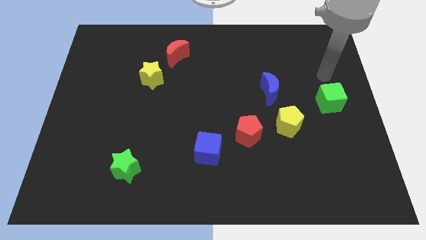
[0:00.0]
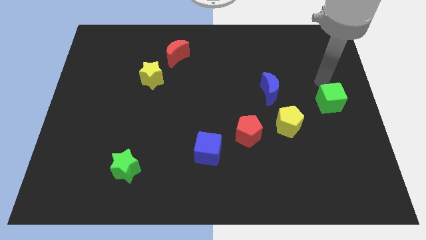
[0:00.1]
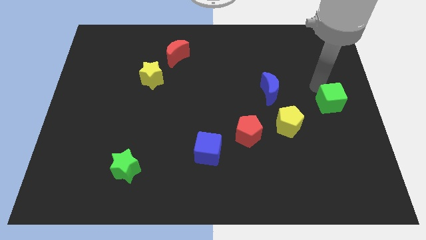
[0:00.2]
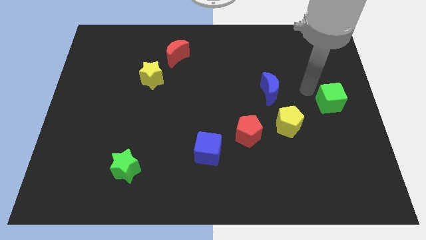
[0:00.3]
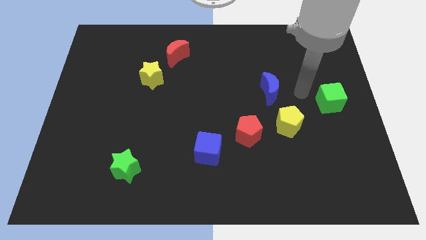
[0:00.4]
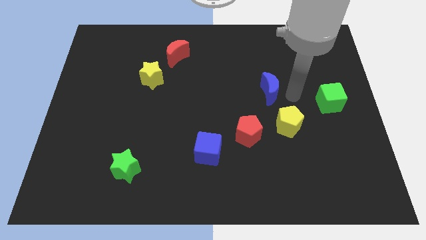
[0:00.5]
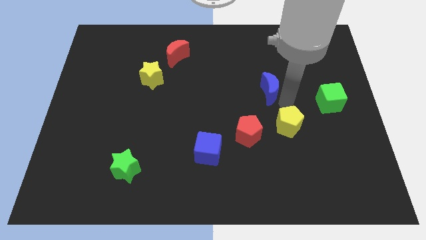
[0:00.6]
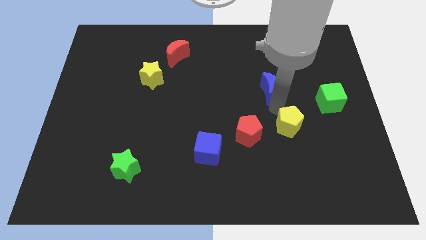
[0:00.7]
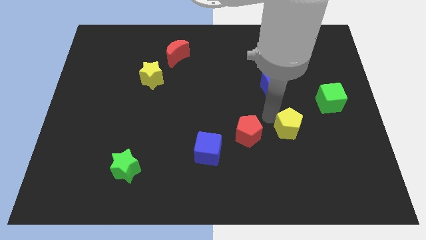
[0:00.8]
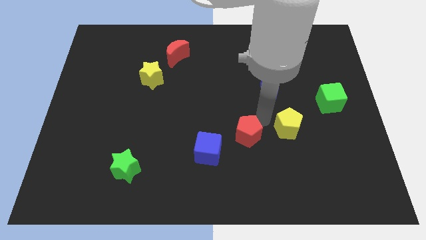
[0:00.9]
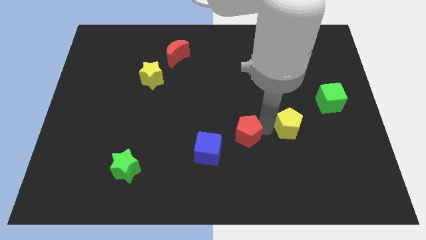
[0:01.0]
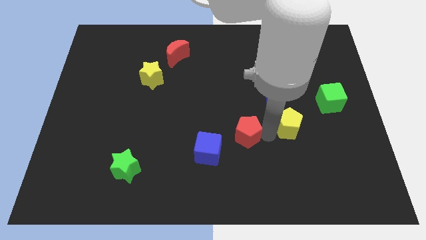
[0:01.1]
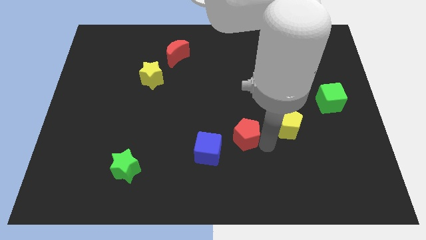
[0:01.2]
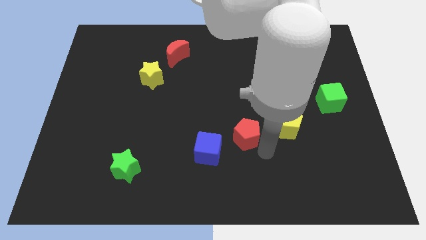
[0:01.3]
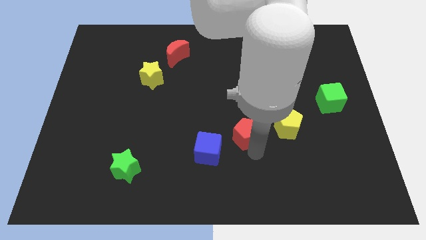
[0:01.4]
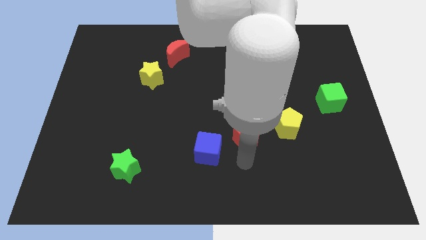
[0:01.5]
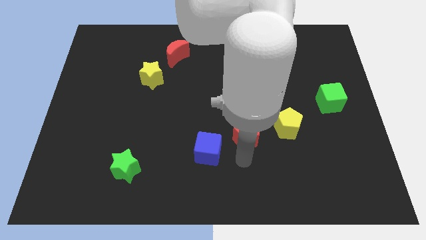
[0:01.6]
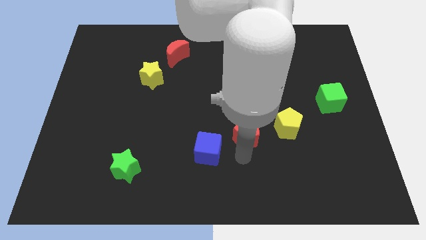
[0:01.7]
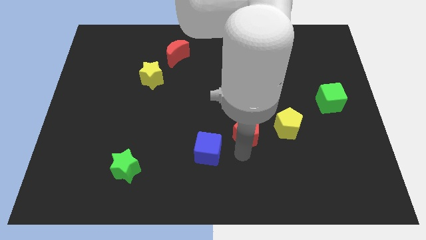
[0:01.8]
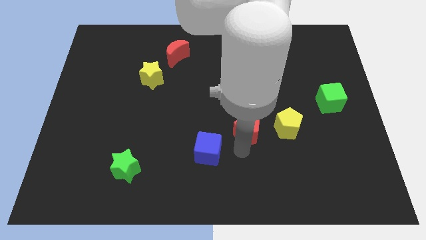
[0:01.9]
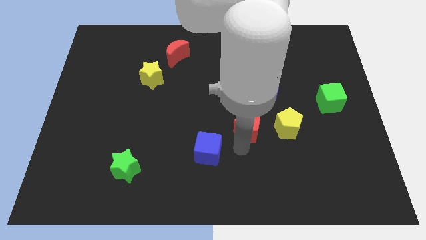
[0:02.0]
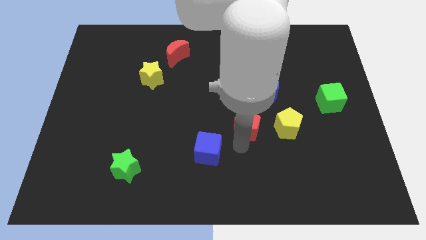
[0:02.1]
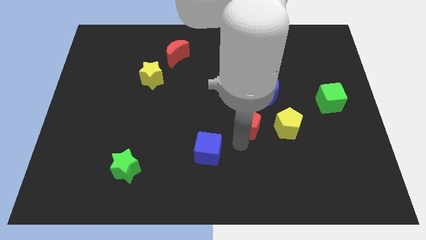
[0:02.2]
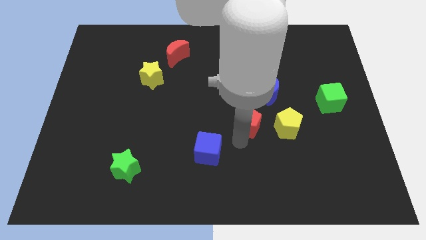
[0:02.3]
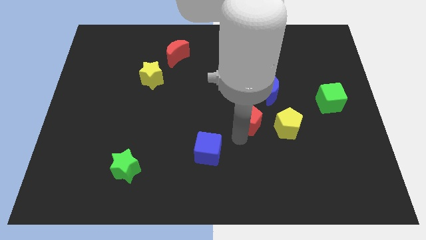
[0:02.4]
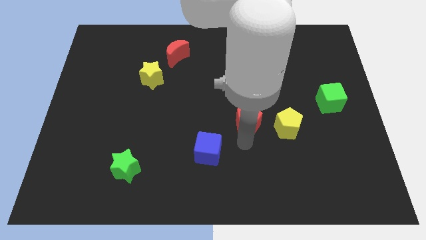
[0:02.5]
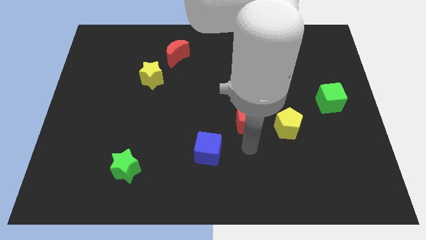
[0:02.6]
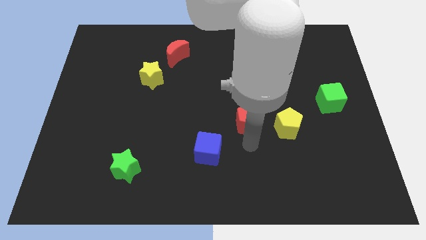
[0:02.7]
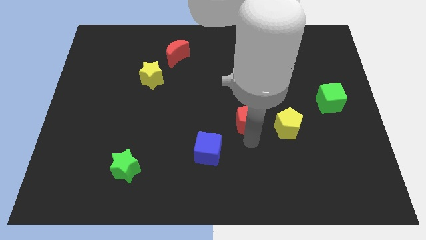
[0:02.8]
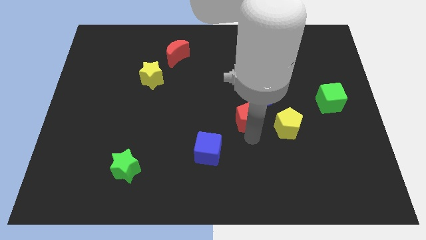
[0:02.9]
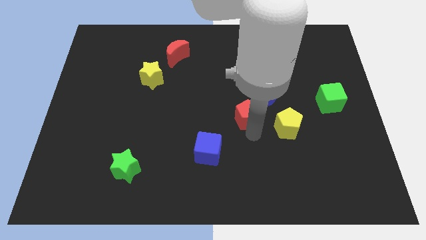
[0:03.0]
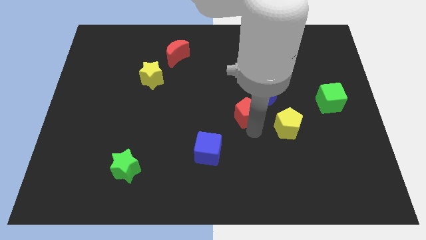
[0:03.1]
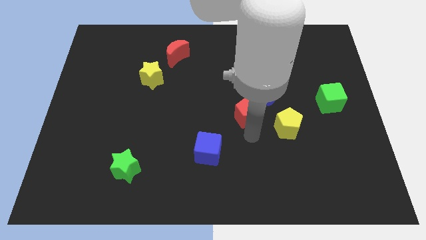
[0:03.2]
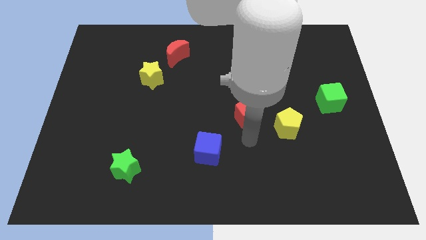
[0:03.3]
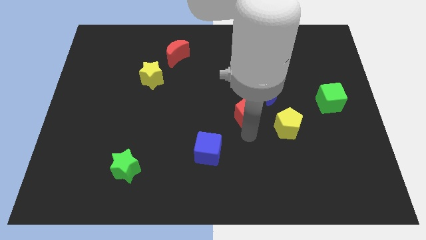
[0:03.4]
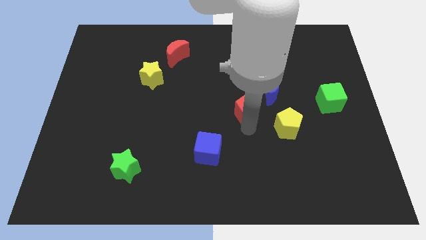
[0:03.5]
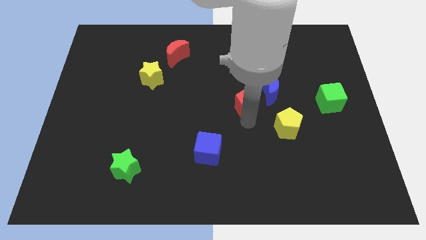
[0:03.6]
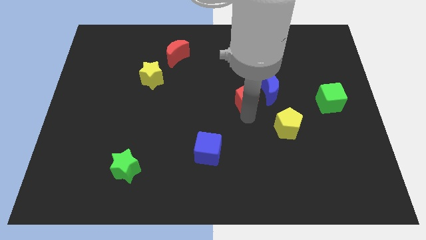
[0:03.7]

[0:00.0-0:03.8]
separate the red pentagon from the yellow pentagon and blue cube

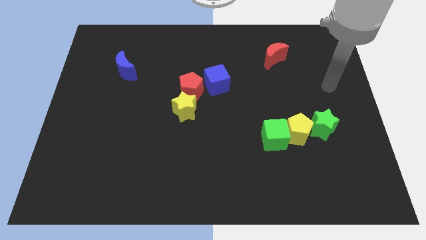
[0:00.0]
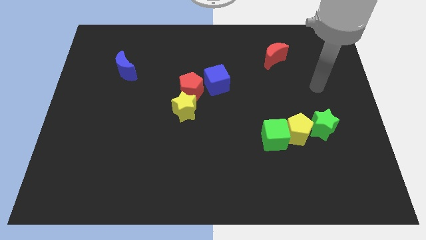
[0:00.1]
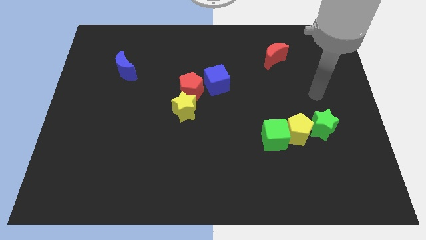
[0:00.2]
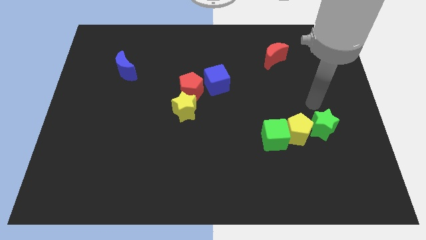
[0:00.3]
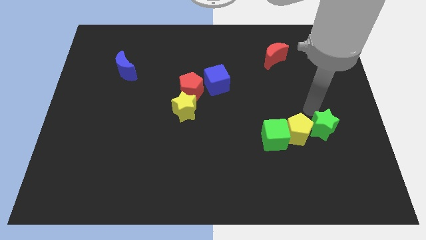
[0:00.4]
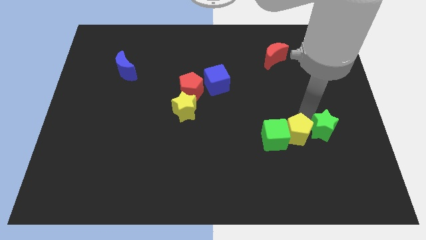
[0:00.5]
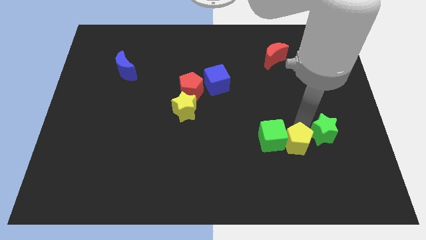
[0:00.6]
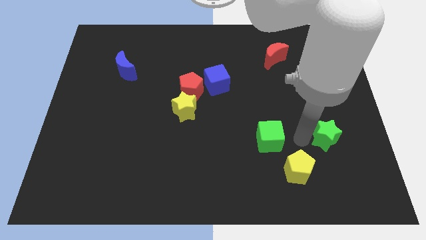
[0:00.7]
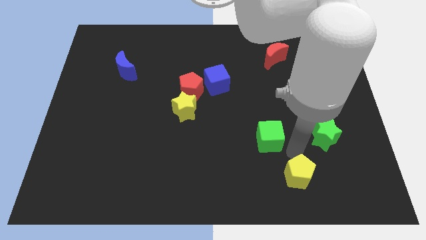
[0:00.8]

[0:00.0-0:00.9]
move the green cube away from the yellow pentagon

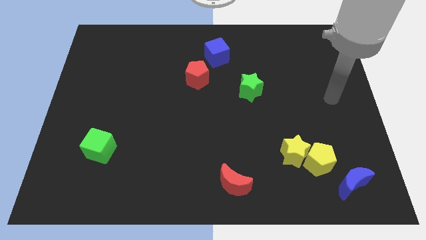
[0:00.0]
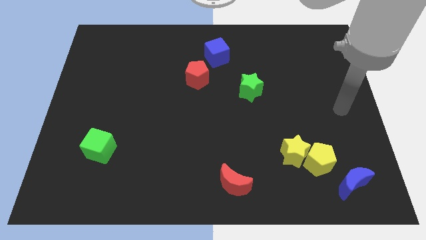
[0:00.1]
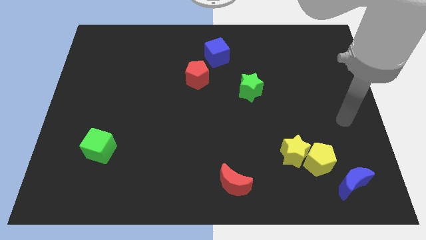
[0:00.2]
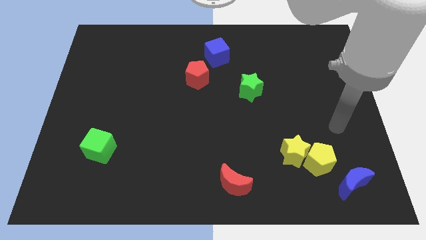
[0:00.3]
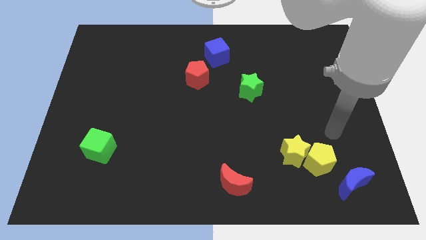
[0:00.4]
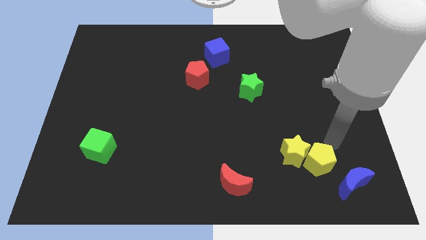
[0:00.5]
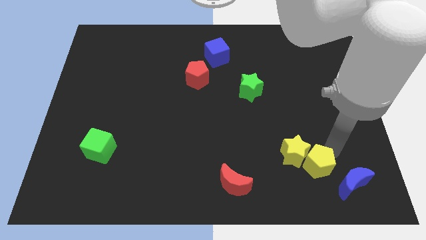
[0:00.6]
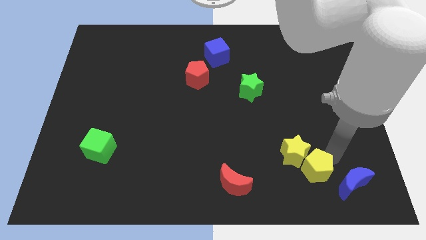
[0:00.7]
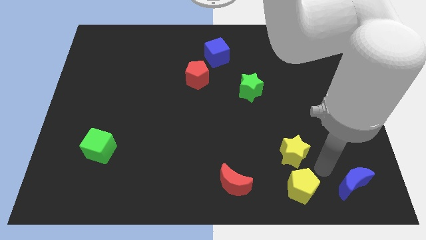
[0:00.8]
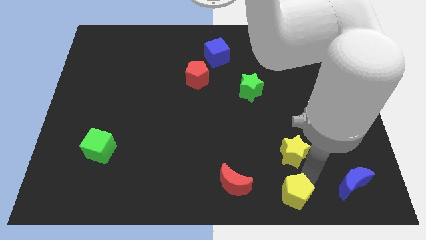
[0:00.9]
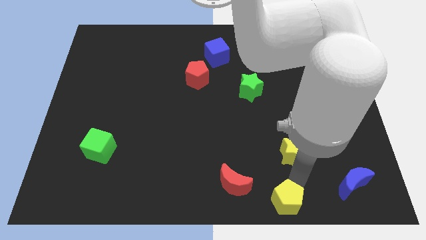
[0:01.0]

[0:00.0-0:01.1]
move the yellow star away from the yellow pentagon

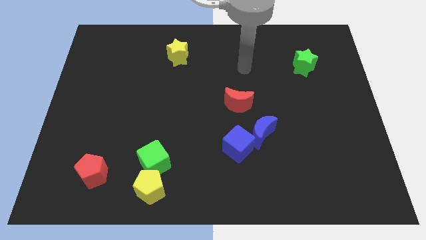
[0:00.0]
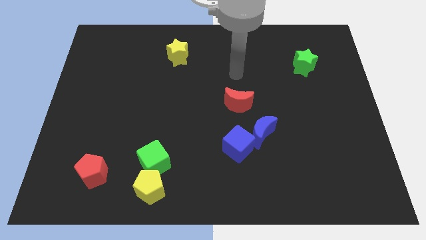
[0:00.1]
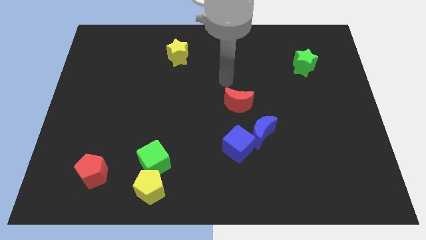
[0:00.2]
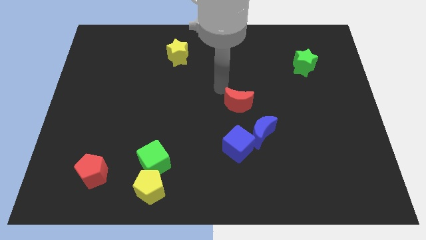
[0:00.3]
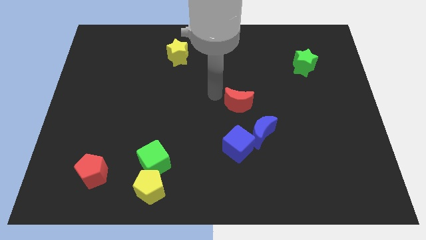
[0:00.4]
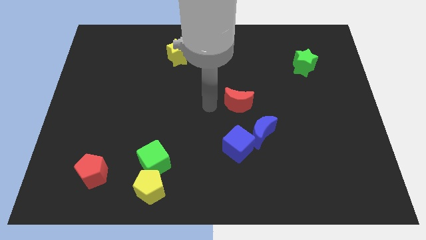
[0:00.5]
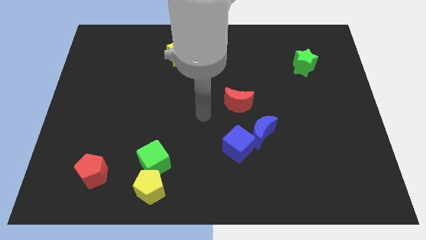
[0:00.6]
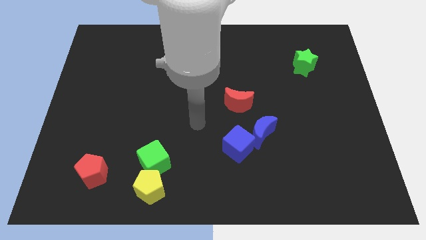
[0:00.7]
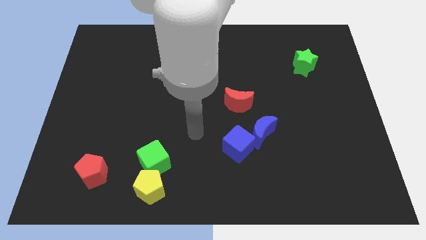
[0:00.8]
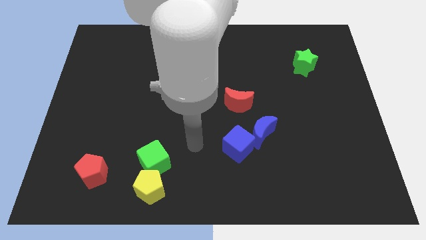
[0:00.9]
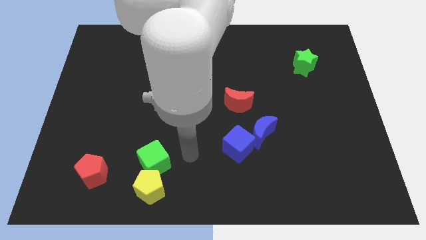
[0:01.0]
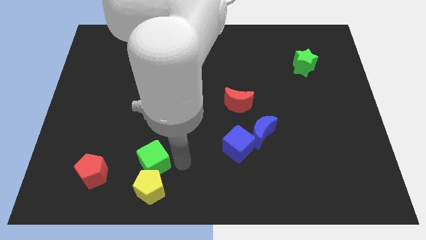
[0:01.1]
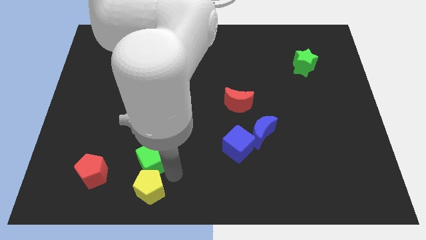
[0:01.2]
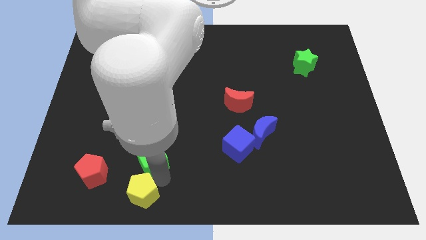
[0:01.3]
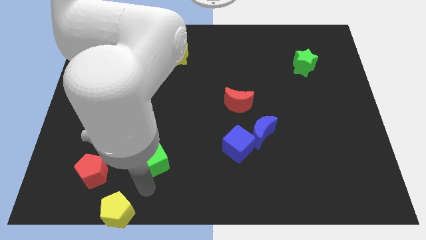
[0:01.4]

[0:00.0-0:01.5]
separate the green cube from the yellow pentagon

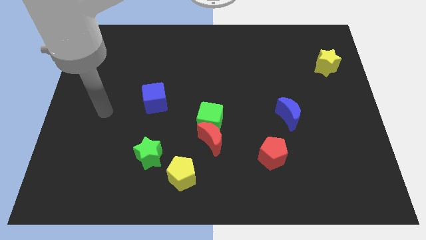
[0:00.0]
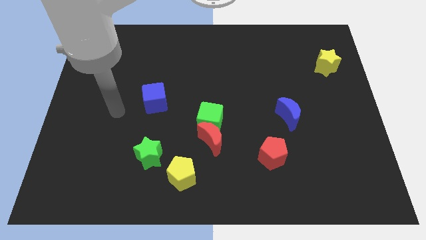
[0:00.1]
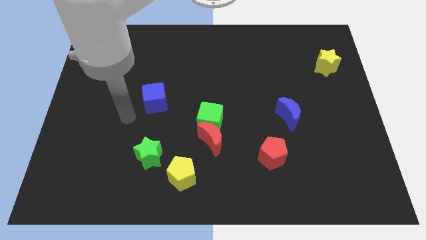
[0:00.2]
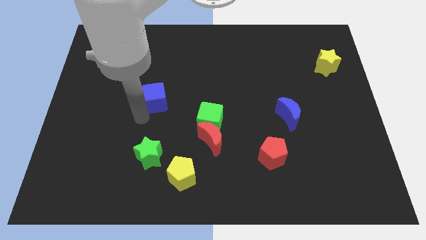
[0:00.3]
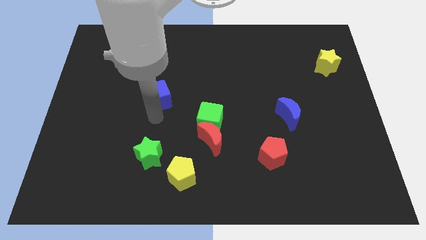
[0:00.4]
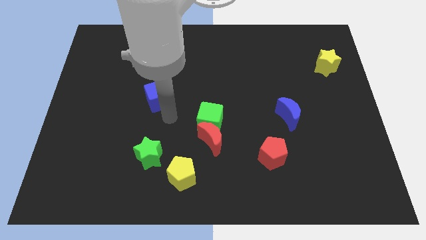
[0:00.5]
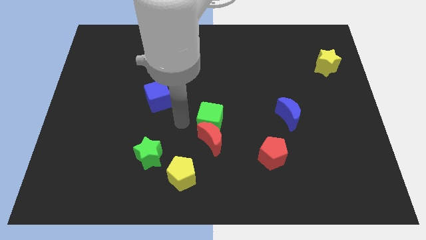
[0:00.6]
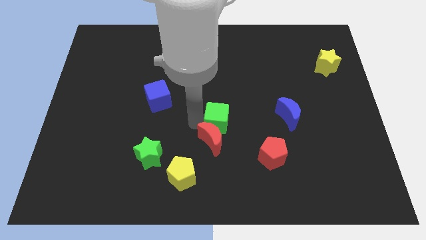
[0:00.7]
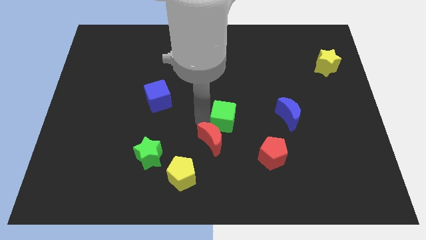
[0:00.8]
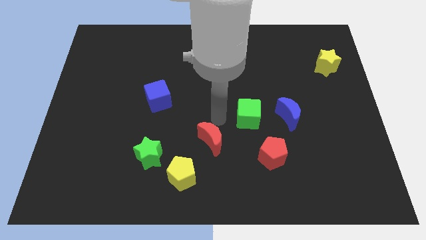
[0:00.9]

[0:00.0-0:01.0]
move the red moon away from the green cube

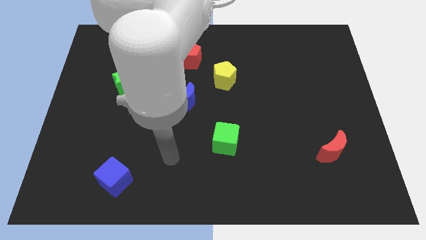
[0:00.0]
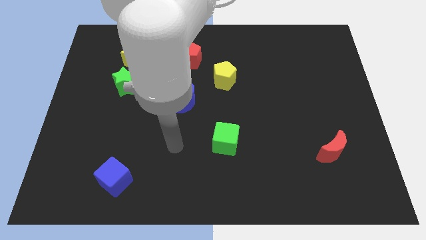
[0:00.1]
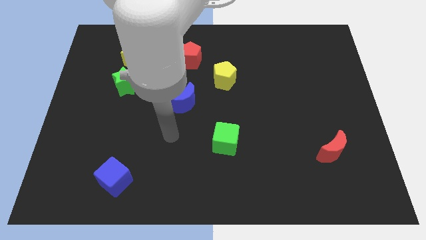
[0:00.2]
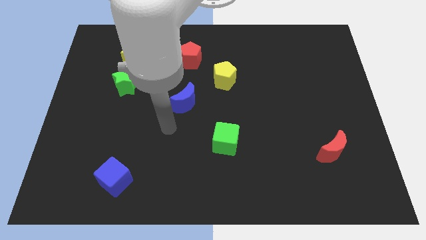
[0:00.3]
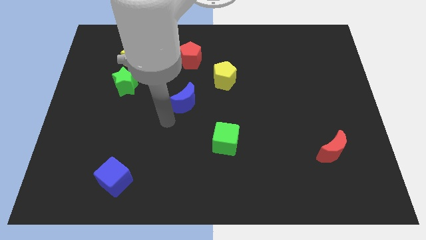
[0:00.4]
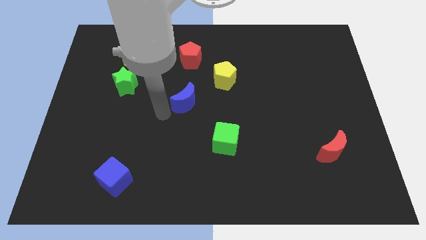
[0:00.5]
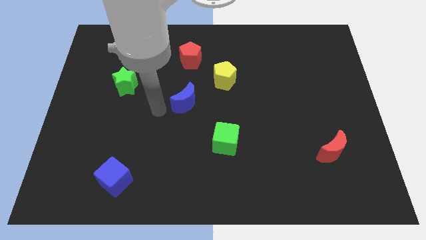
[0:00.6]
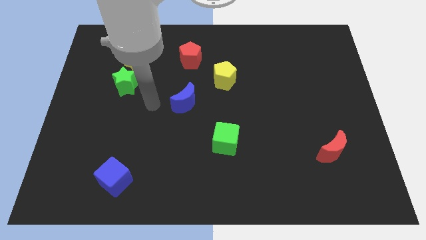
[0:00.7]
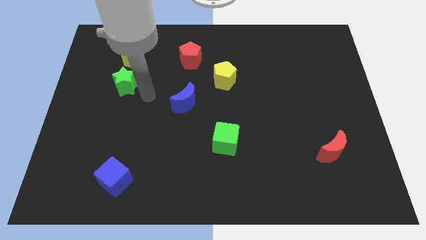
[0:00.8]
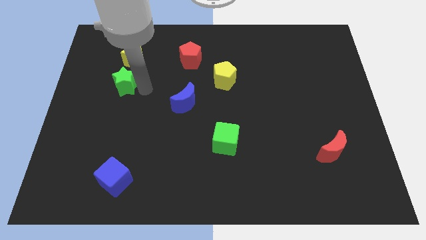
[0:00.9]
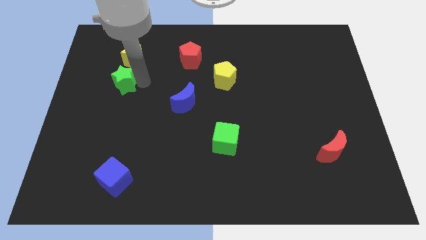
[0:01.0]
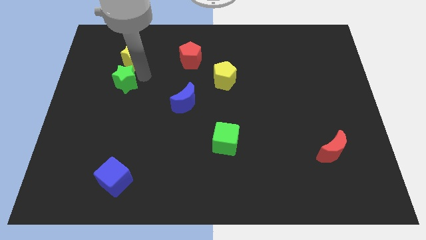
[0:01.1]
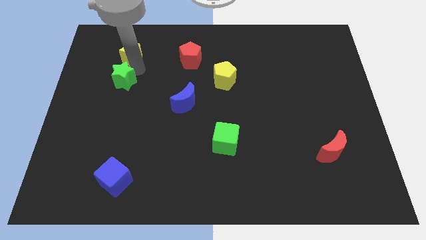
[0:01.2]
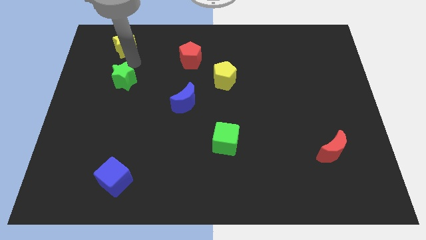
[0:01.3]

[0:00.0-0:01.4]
separate the green star from the yellow star
